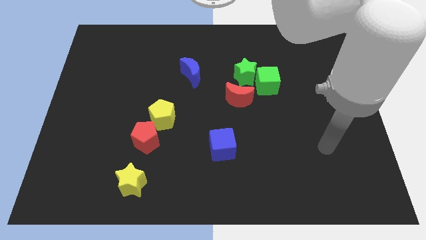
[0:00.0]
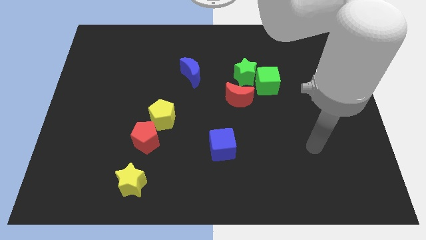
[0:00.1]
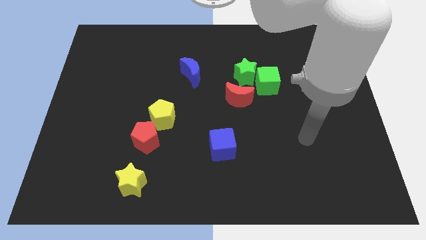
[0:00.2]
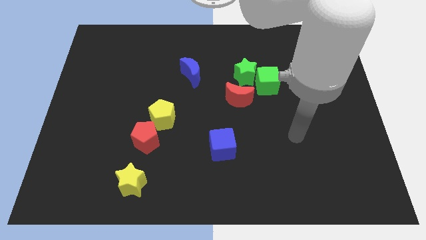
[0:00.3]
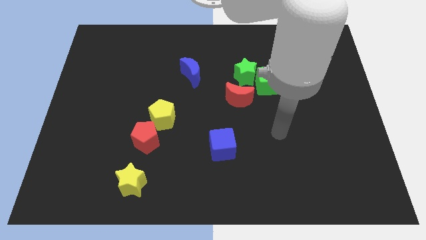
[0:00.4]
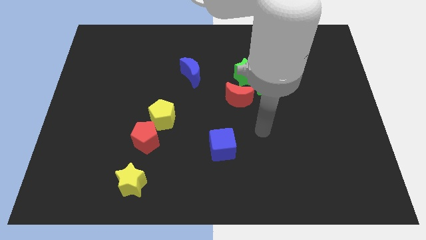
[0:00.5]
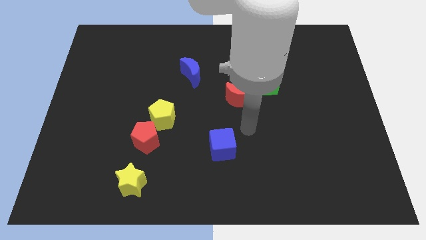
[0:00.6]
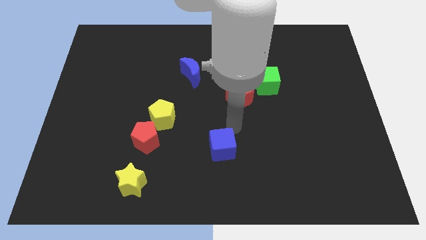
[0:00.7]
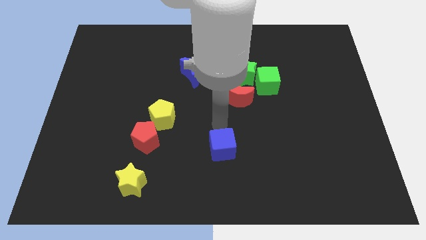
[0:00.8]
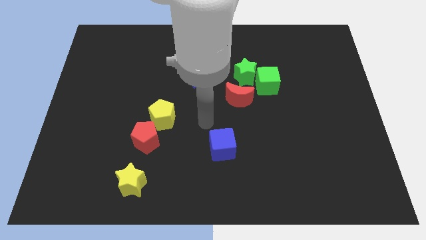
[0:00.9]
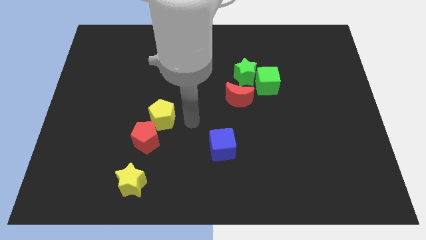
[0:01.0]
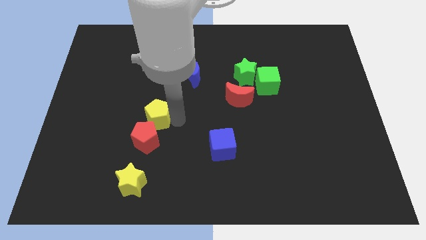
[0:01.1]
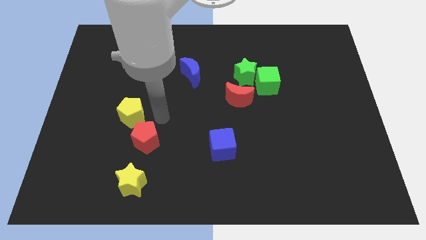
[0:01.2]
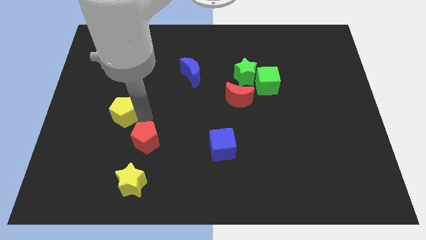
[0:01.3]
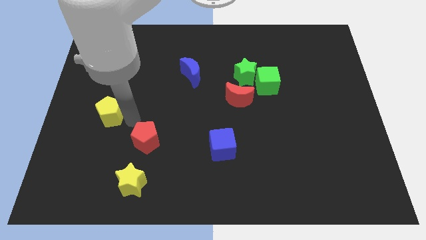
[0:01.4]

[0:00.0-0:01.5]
move the red pentagon away from the yellow pentagon

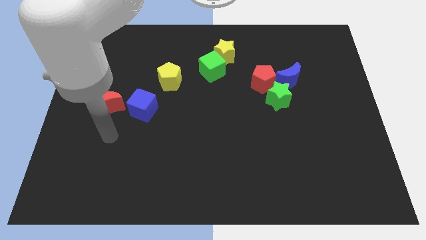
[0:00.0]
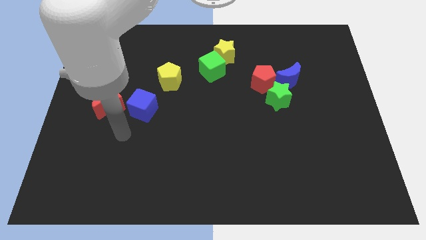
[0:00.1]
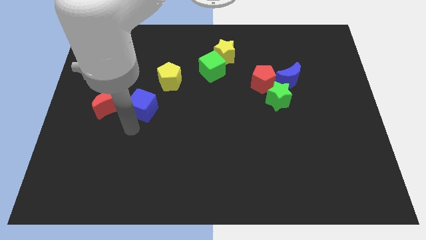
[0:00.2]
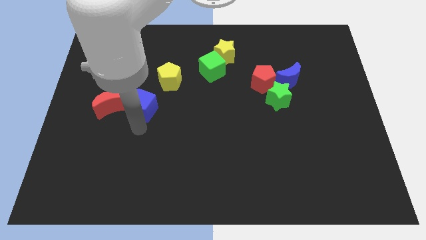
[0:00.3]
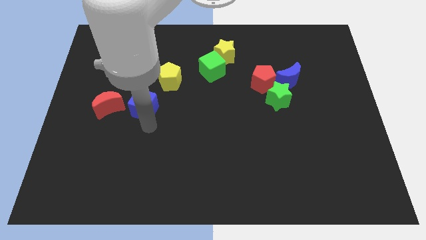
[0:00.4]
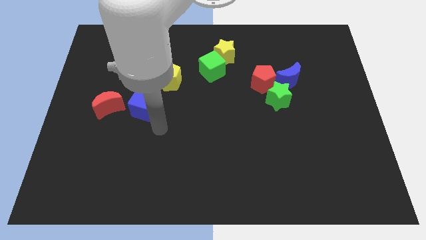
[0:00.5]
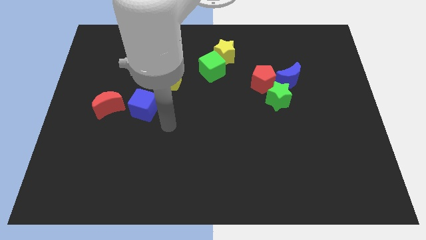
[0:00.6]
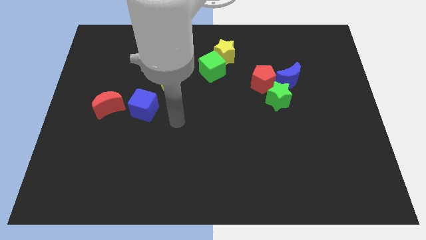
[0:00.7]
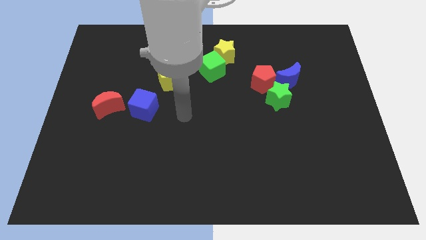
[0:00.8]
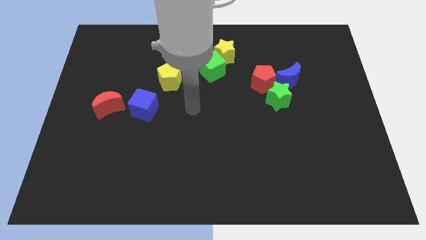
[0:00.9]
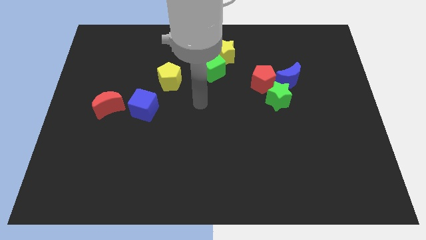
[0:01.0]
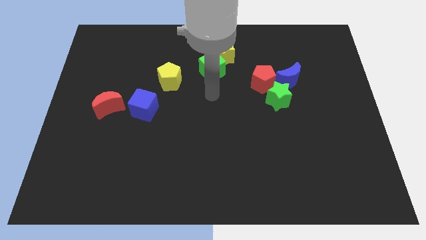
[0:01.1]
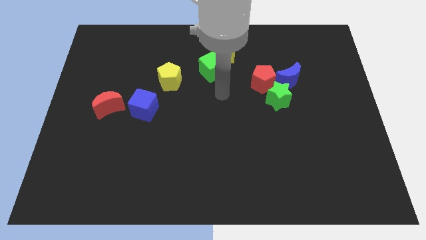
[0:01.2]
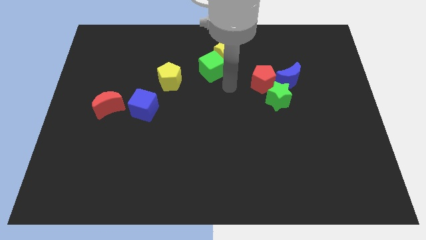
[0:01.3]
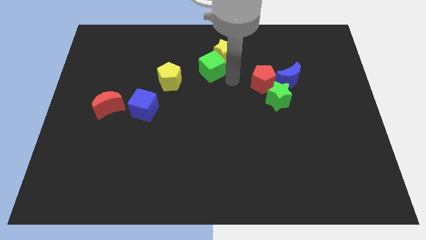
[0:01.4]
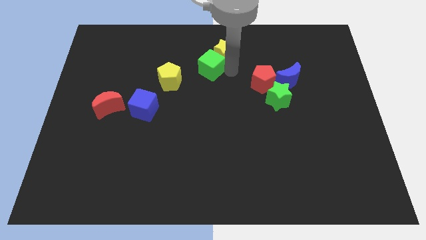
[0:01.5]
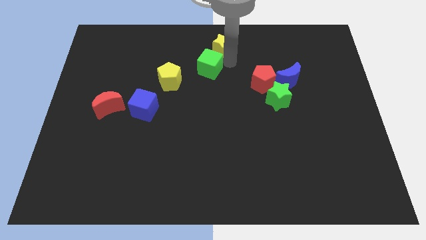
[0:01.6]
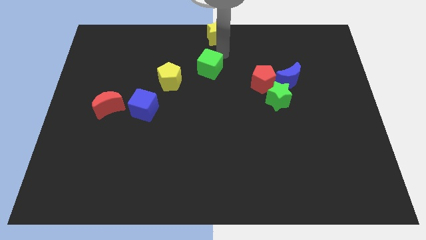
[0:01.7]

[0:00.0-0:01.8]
separate the green cube from the yellow star

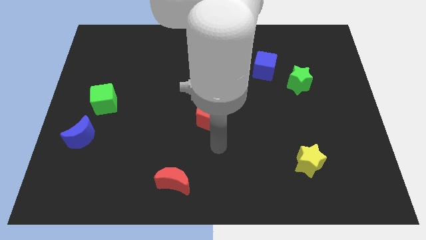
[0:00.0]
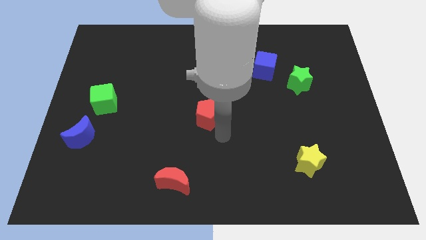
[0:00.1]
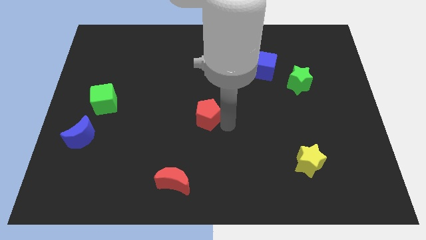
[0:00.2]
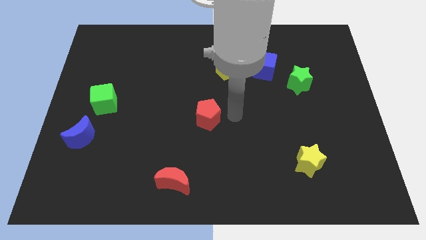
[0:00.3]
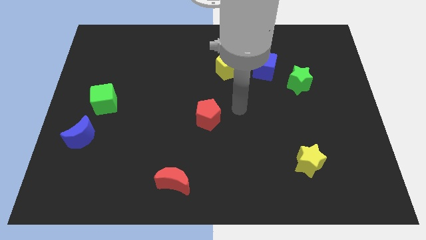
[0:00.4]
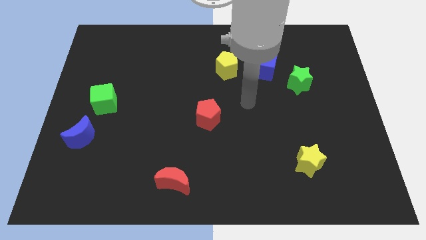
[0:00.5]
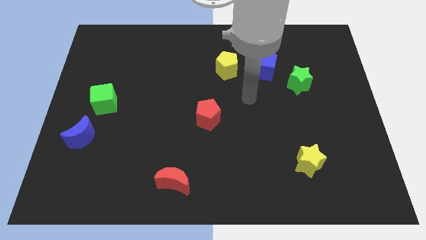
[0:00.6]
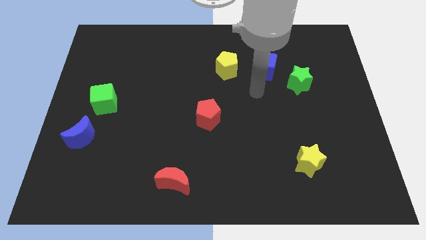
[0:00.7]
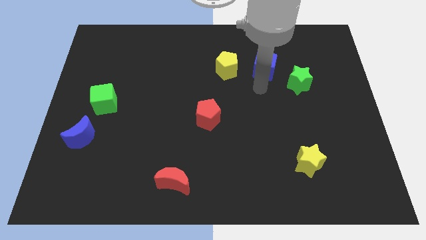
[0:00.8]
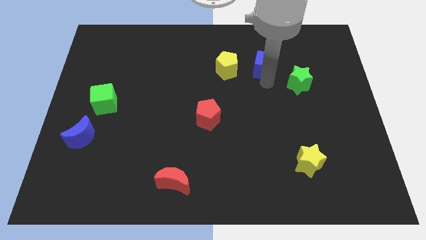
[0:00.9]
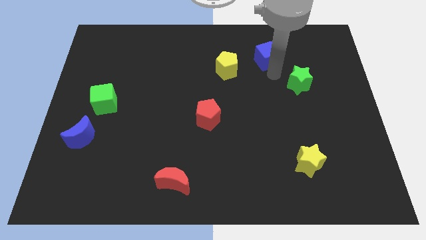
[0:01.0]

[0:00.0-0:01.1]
move the green star away from the blue cube

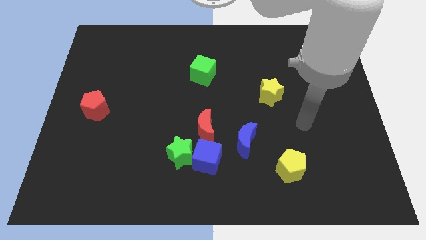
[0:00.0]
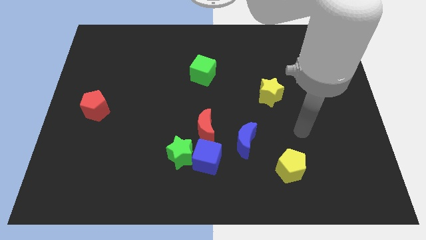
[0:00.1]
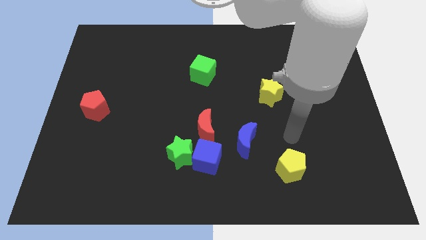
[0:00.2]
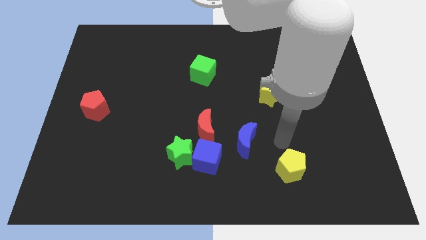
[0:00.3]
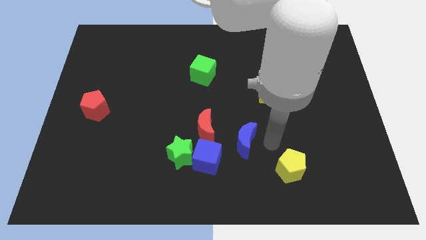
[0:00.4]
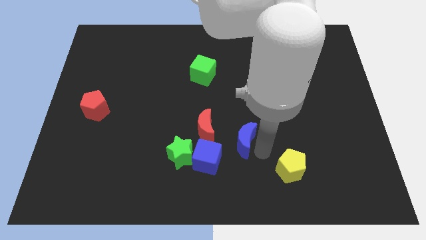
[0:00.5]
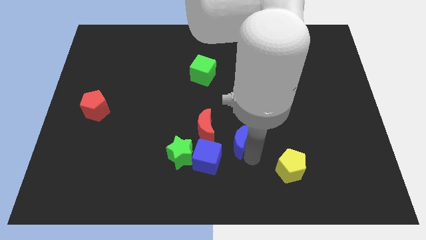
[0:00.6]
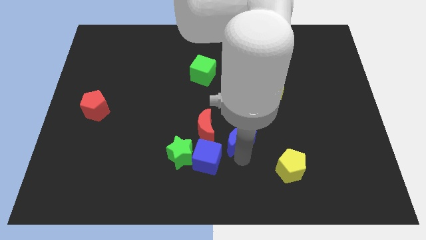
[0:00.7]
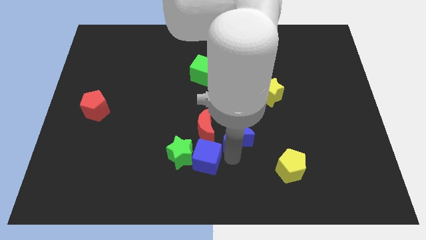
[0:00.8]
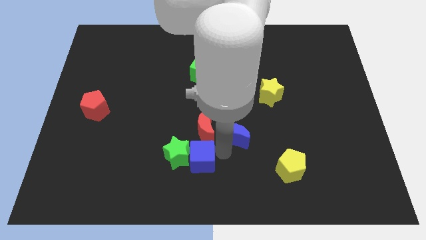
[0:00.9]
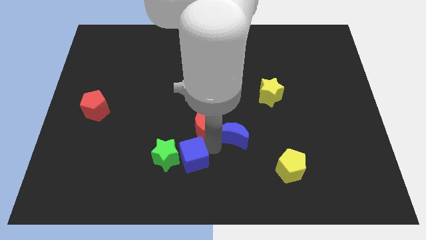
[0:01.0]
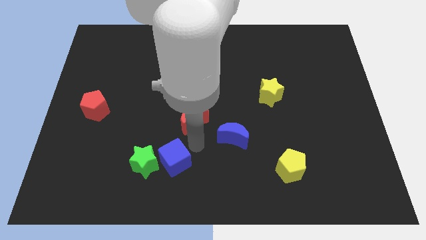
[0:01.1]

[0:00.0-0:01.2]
pull the green star apart from the blue cube and red moon

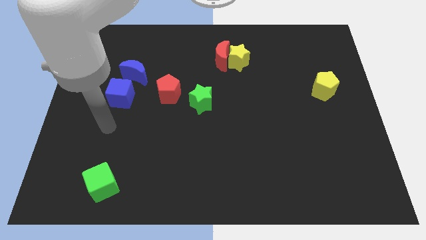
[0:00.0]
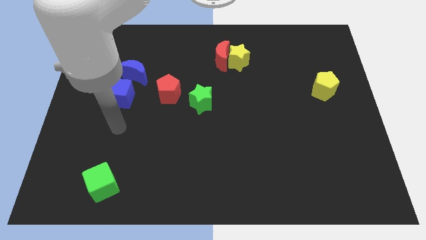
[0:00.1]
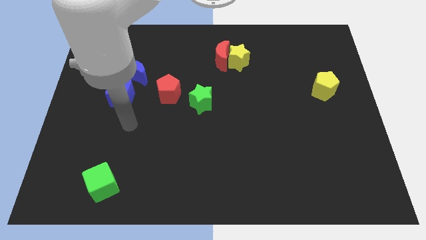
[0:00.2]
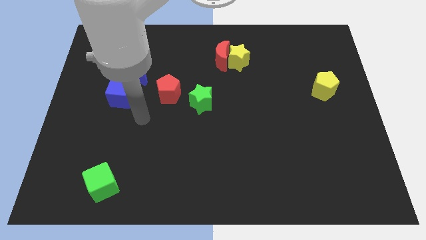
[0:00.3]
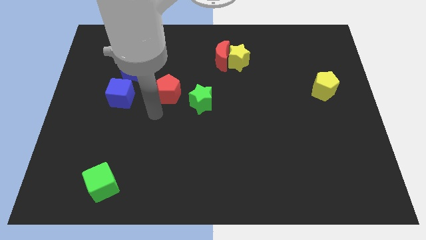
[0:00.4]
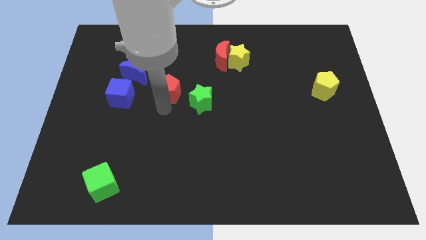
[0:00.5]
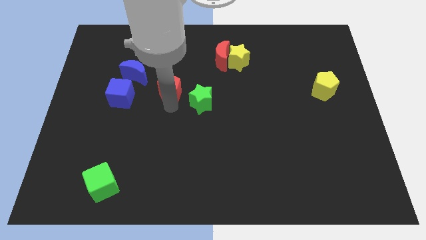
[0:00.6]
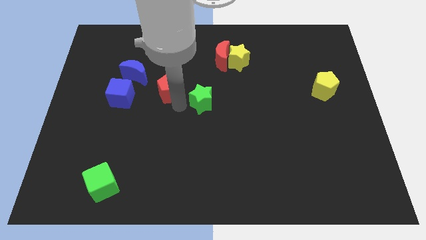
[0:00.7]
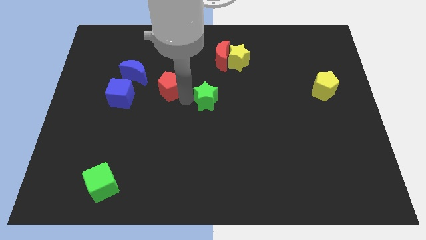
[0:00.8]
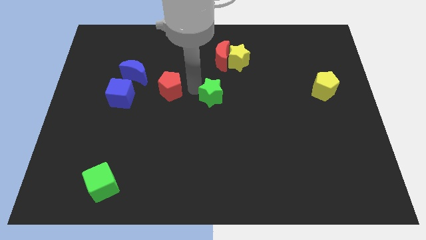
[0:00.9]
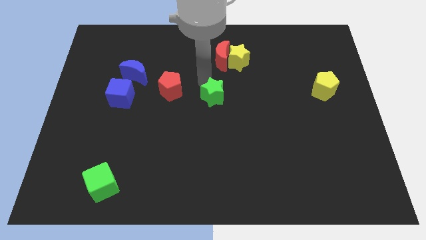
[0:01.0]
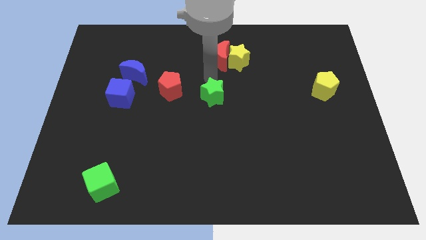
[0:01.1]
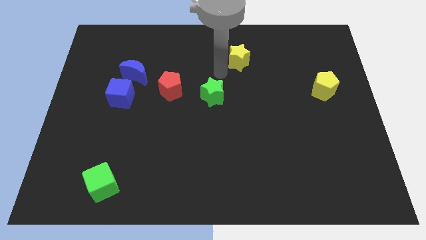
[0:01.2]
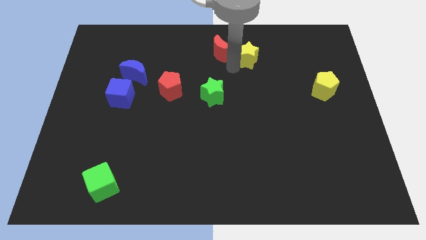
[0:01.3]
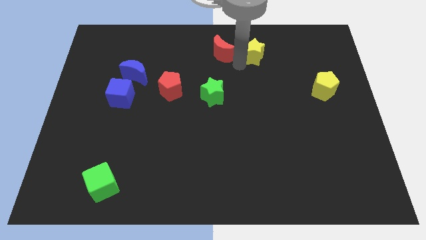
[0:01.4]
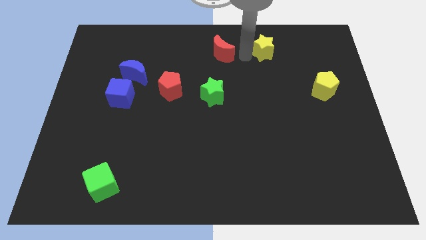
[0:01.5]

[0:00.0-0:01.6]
separate the red moon from the yellow star

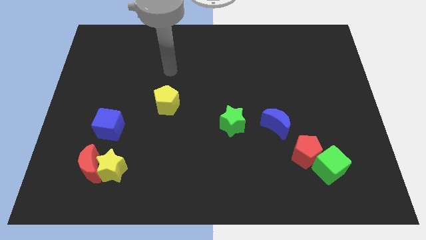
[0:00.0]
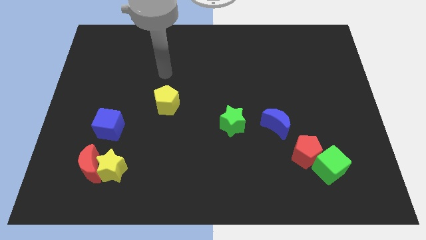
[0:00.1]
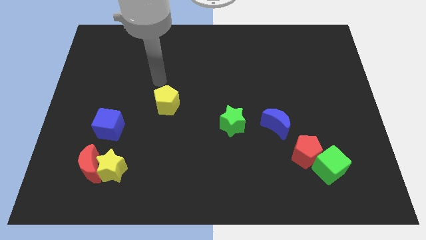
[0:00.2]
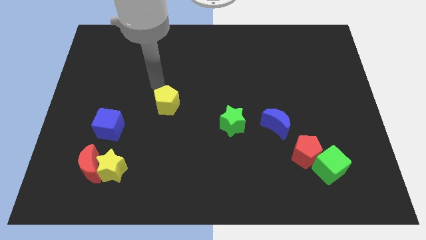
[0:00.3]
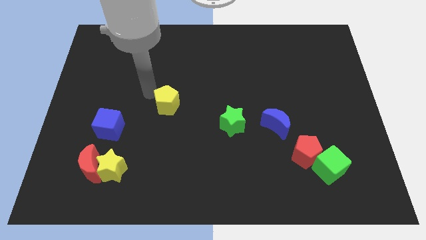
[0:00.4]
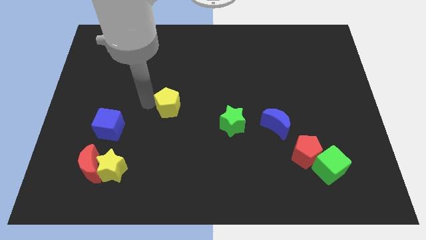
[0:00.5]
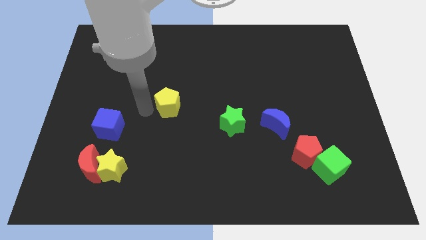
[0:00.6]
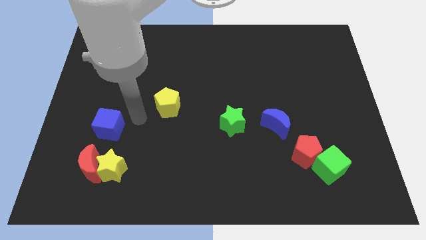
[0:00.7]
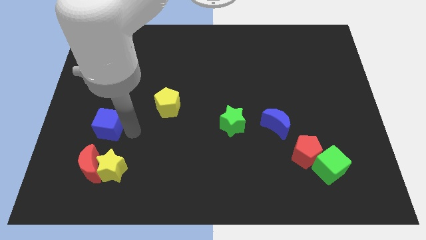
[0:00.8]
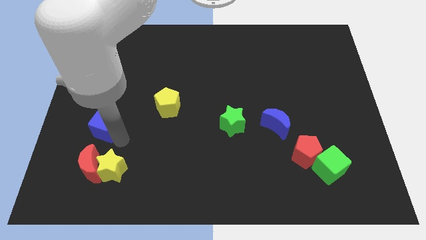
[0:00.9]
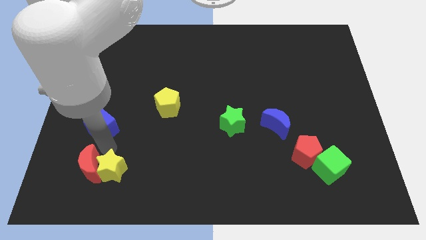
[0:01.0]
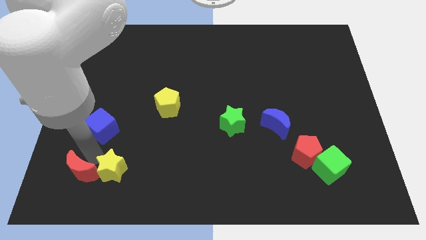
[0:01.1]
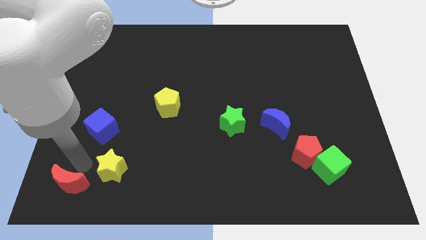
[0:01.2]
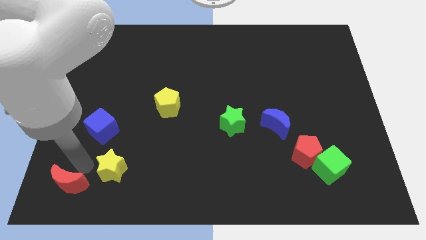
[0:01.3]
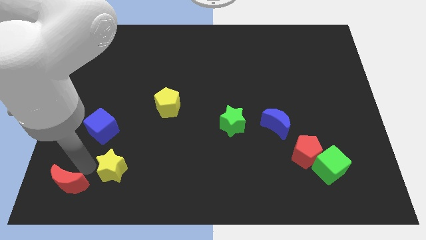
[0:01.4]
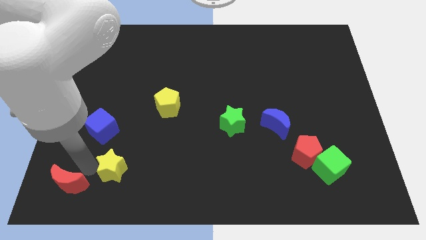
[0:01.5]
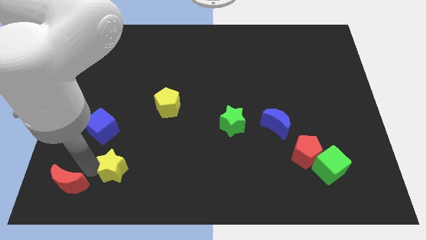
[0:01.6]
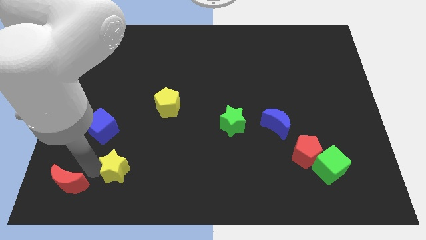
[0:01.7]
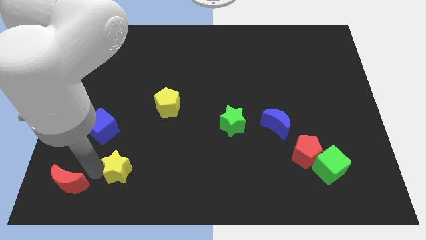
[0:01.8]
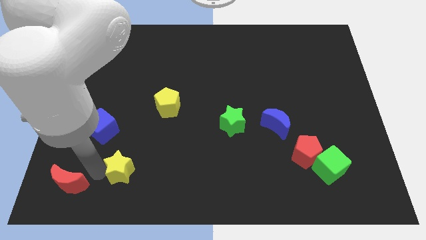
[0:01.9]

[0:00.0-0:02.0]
move the yellow star away from the red moon
